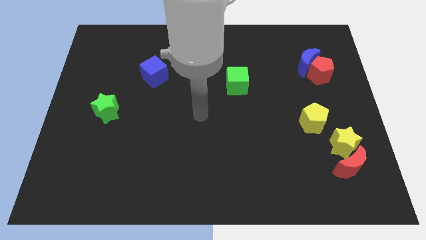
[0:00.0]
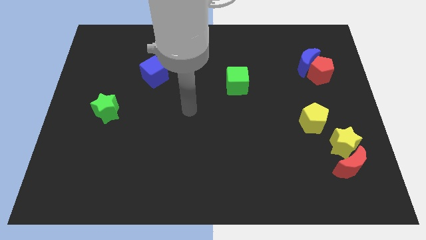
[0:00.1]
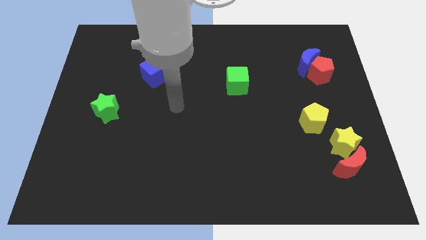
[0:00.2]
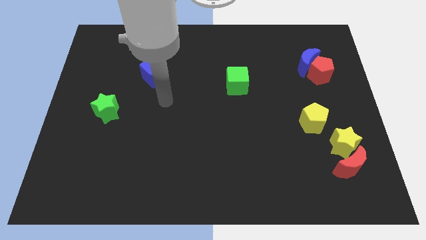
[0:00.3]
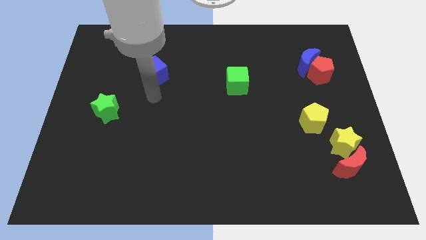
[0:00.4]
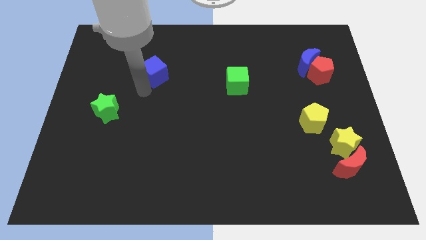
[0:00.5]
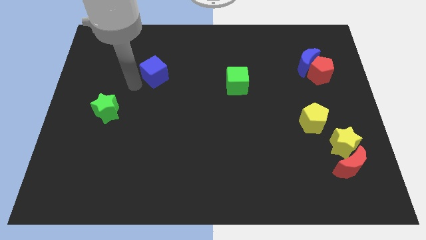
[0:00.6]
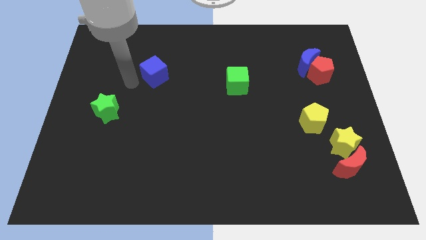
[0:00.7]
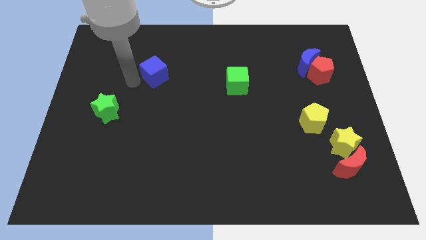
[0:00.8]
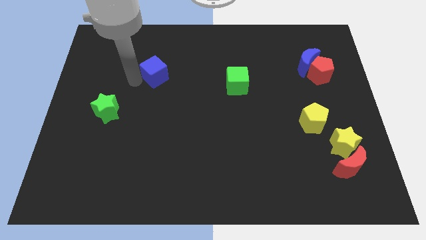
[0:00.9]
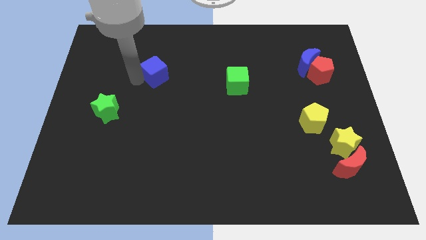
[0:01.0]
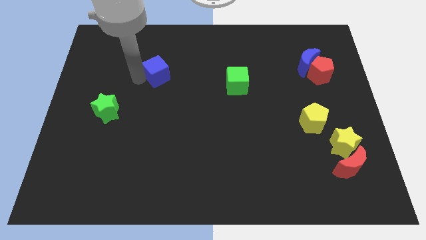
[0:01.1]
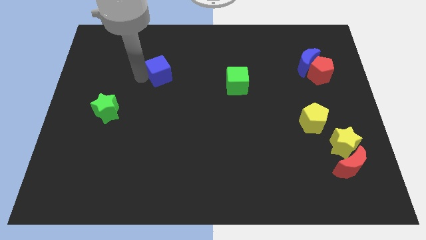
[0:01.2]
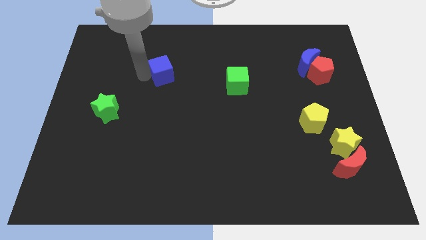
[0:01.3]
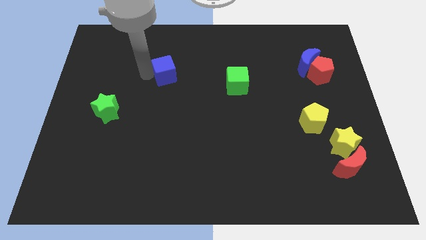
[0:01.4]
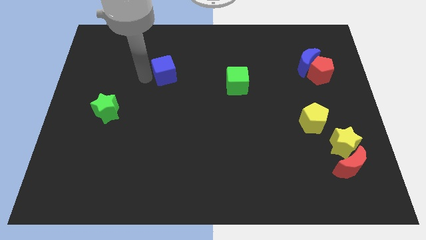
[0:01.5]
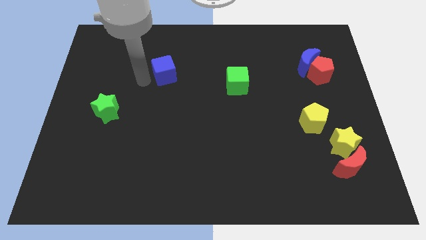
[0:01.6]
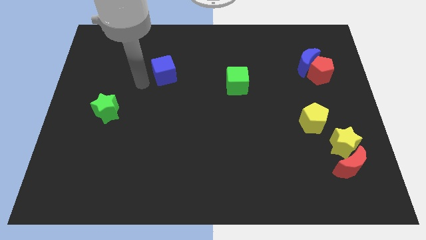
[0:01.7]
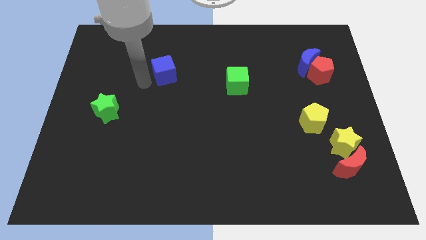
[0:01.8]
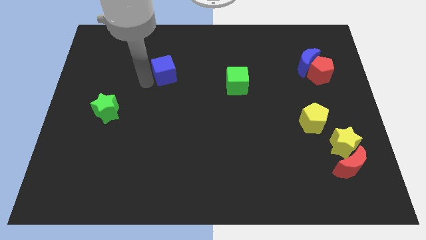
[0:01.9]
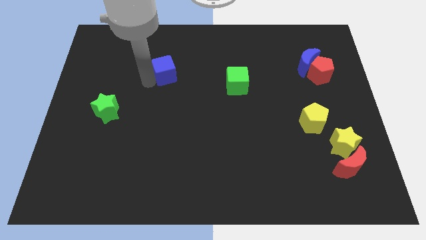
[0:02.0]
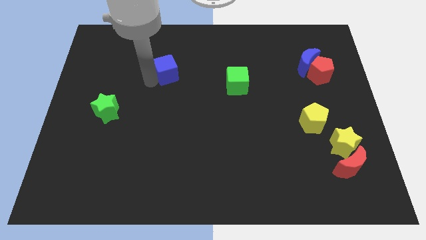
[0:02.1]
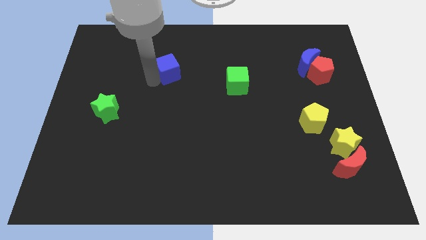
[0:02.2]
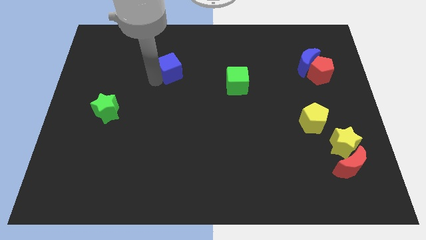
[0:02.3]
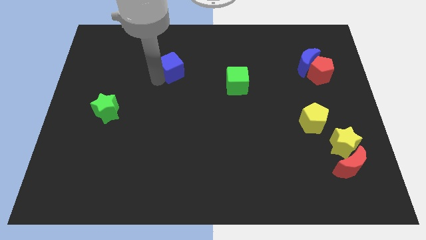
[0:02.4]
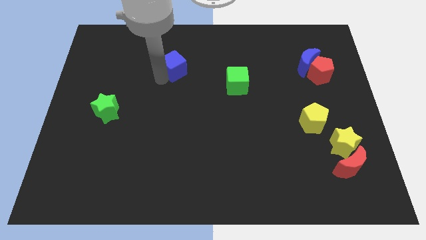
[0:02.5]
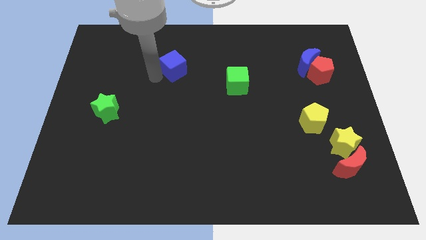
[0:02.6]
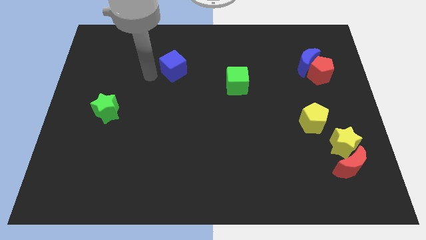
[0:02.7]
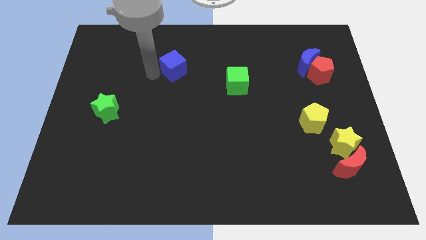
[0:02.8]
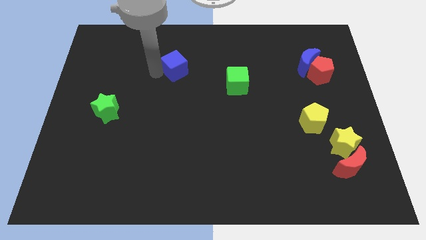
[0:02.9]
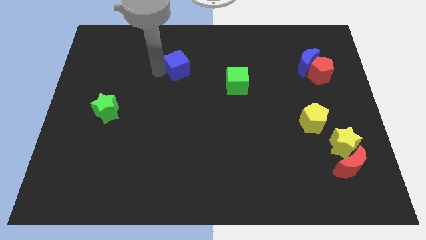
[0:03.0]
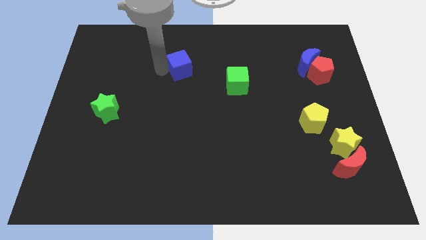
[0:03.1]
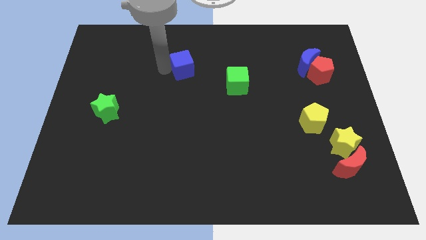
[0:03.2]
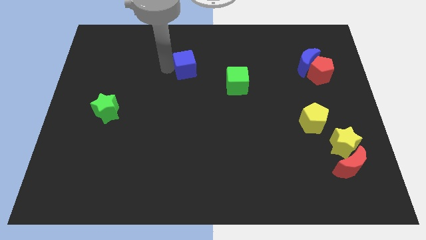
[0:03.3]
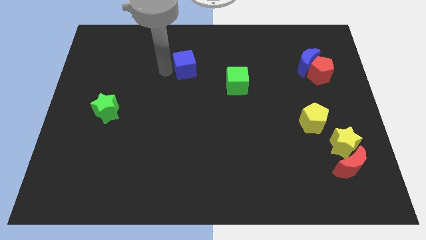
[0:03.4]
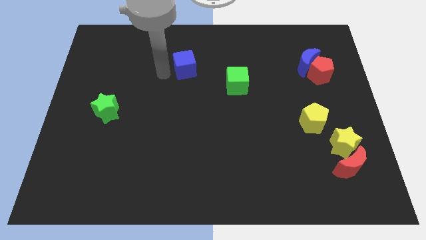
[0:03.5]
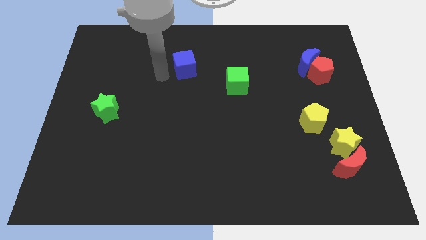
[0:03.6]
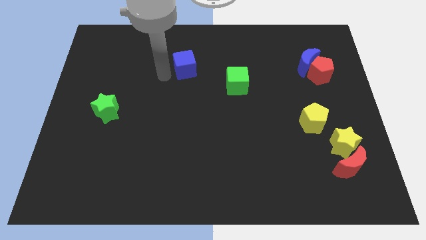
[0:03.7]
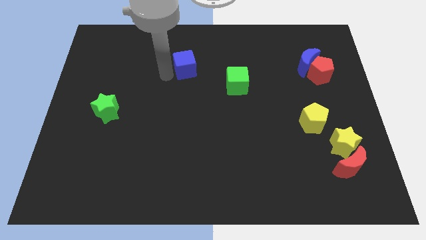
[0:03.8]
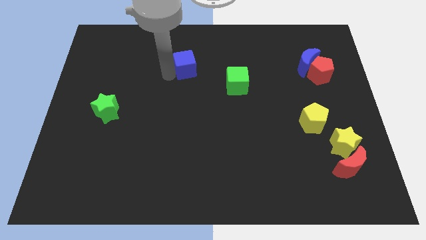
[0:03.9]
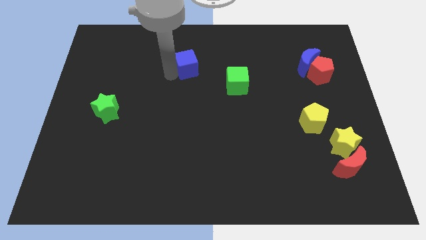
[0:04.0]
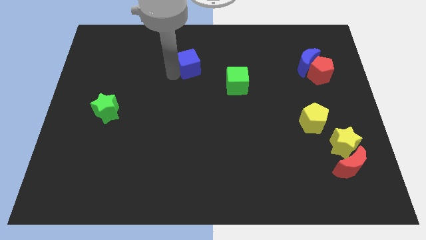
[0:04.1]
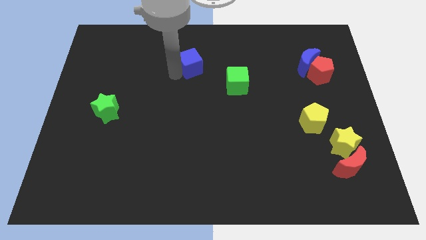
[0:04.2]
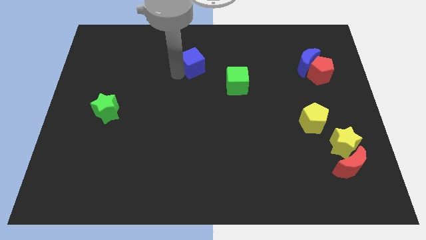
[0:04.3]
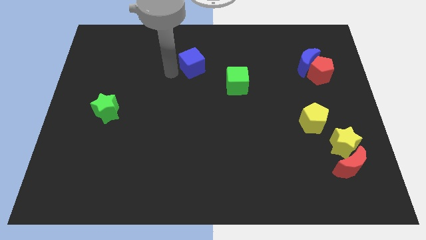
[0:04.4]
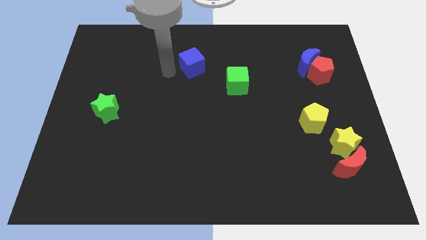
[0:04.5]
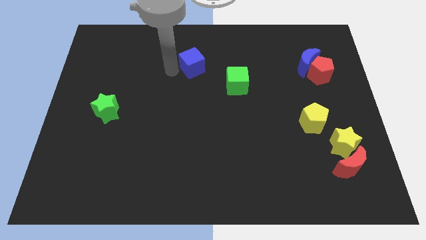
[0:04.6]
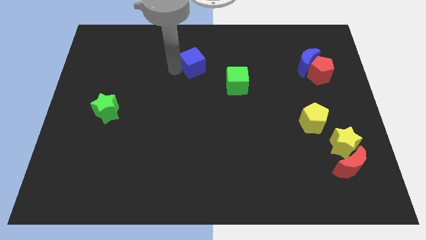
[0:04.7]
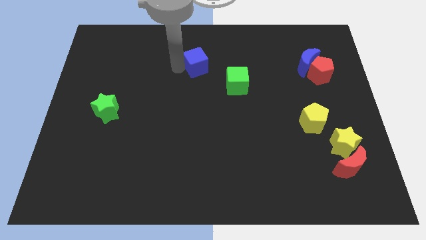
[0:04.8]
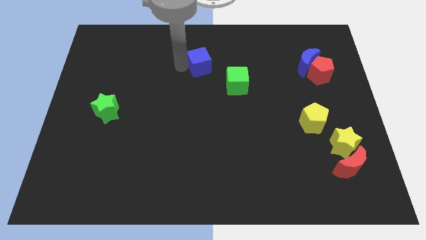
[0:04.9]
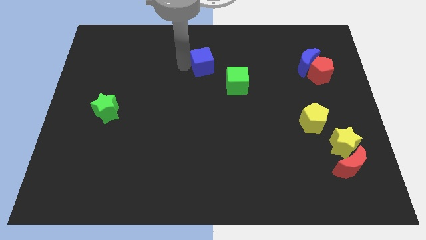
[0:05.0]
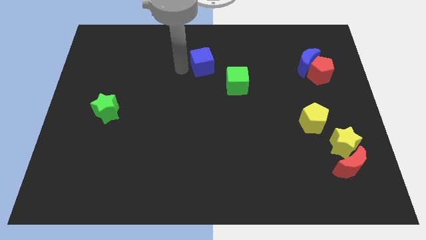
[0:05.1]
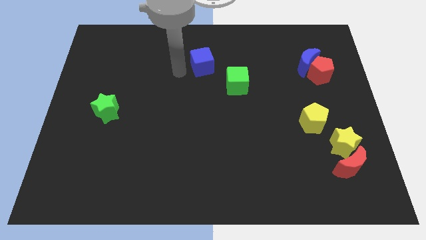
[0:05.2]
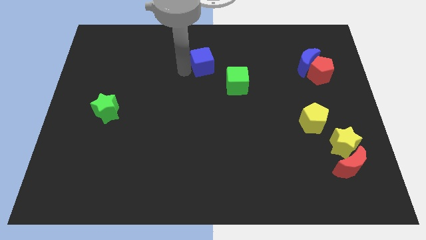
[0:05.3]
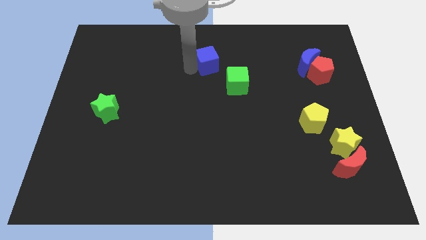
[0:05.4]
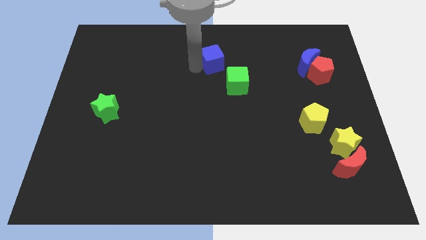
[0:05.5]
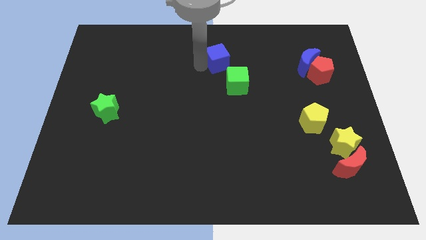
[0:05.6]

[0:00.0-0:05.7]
move the blue cube to the top side of the green cube

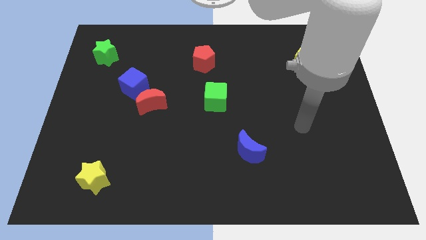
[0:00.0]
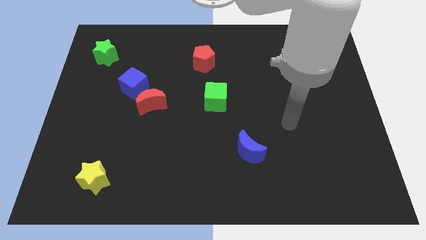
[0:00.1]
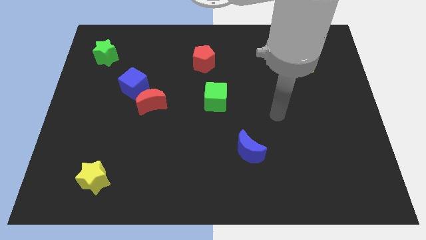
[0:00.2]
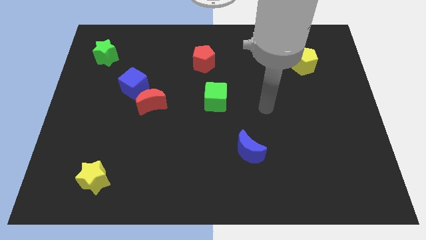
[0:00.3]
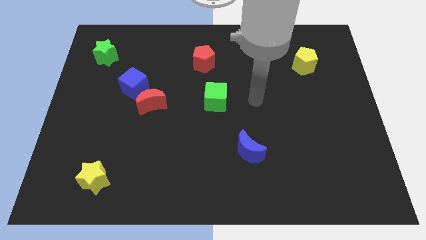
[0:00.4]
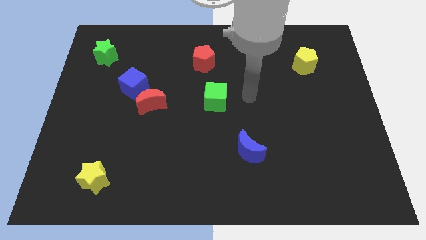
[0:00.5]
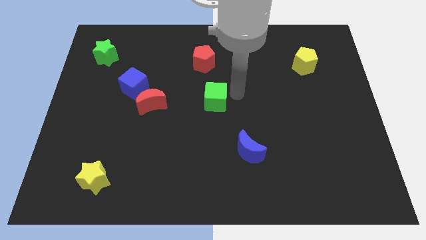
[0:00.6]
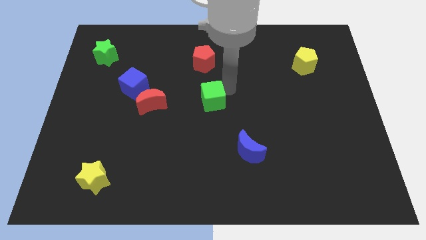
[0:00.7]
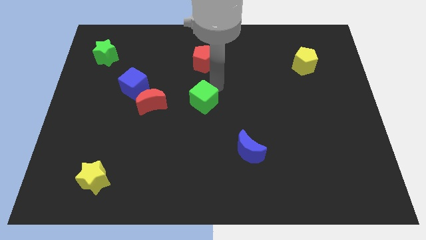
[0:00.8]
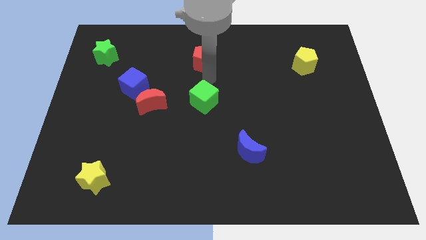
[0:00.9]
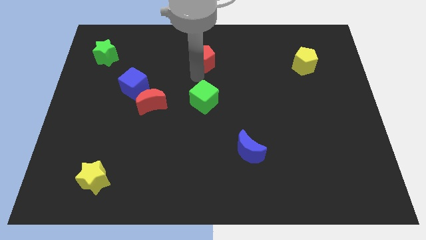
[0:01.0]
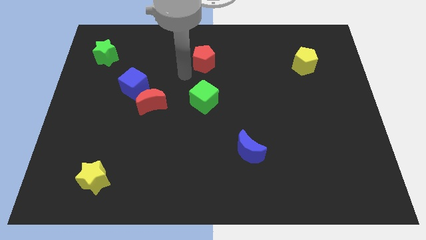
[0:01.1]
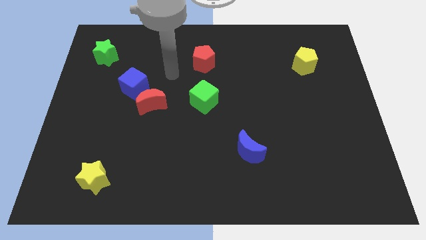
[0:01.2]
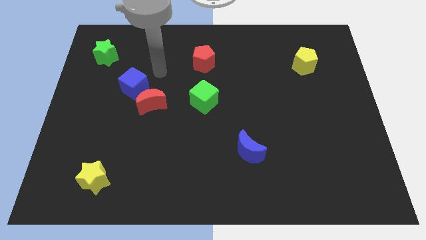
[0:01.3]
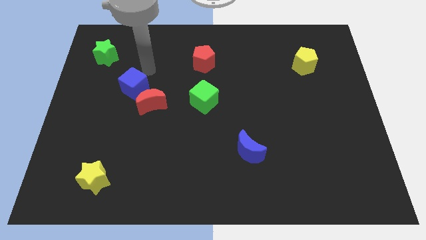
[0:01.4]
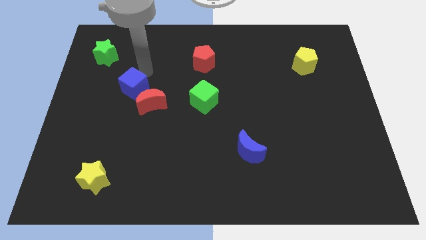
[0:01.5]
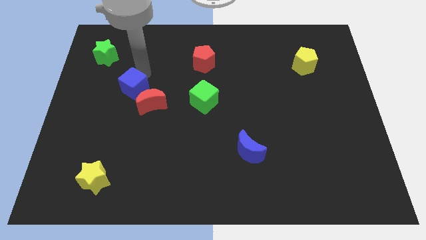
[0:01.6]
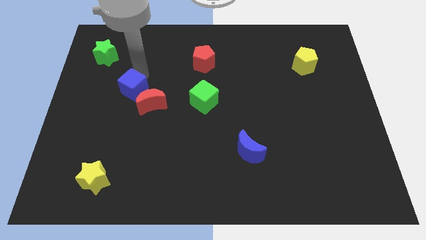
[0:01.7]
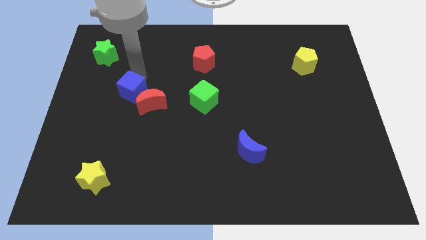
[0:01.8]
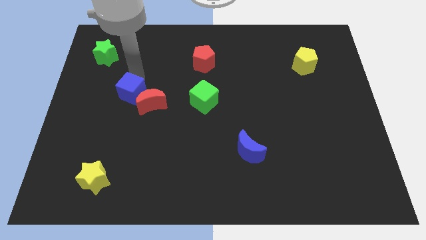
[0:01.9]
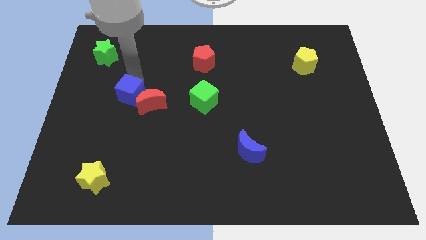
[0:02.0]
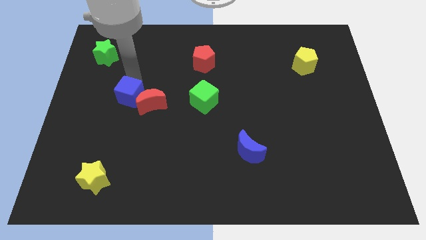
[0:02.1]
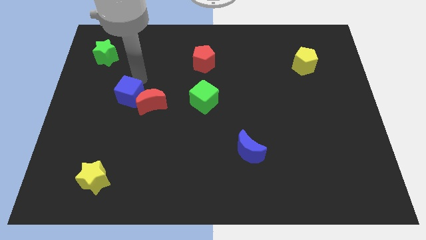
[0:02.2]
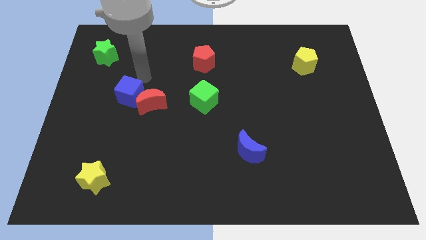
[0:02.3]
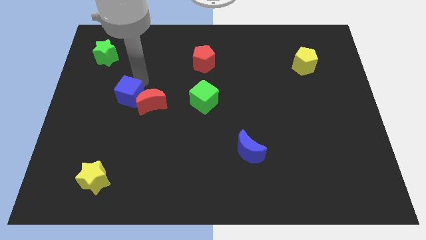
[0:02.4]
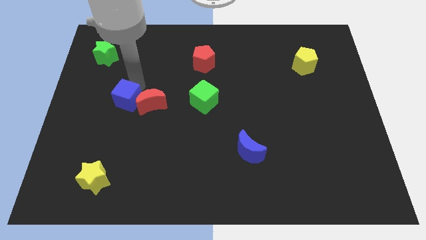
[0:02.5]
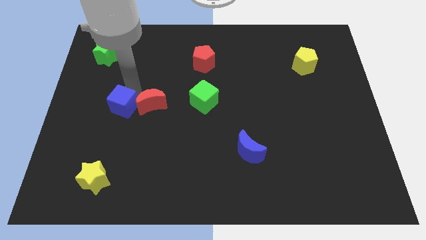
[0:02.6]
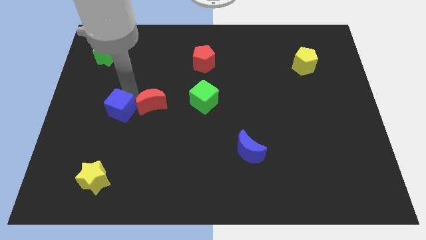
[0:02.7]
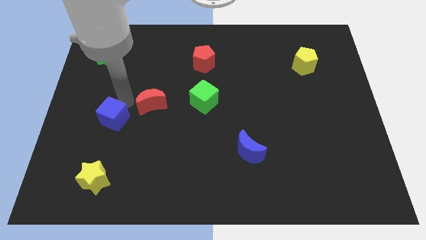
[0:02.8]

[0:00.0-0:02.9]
slide the blue cube above the yellow star
